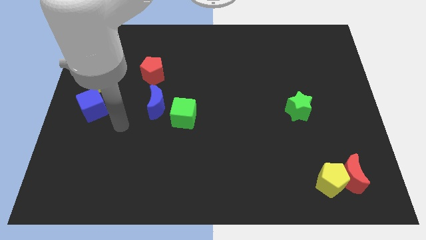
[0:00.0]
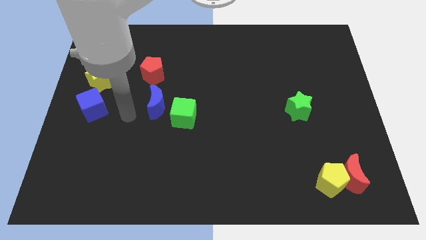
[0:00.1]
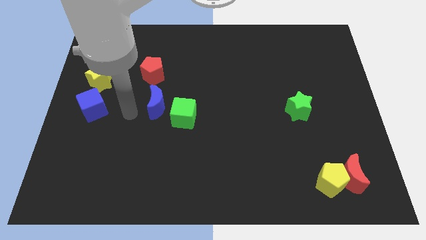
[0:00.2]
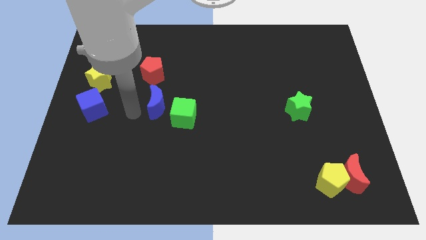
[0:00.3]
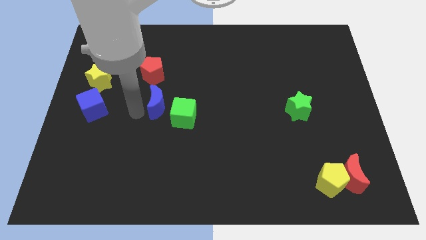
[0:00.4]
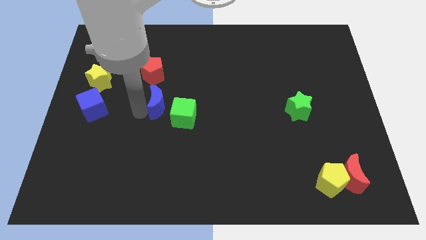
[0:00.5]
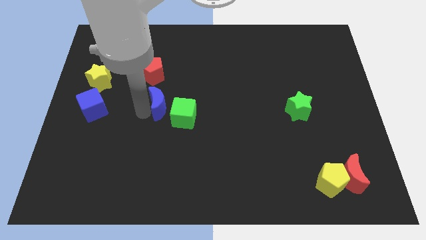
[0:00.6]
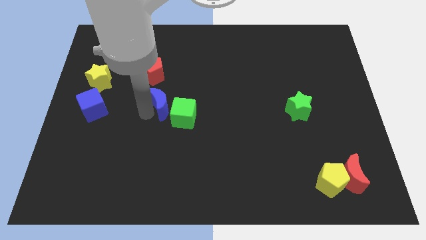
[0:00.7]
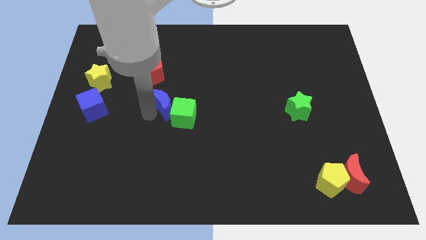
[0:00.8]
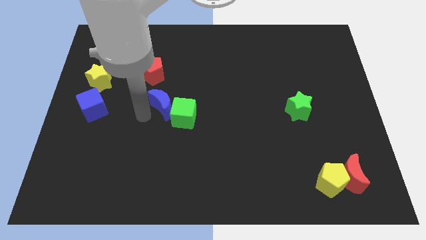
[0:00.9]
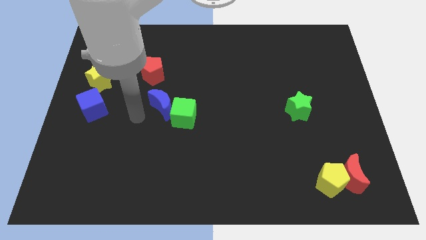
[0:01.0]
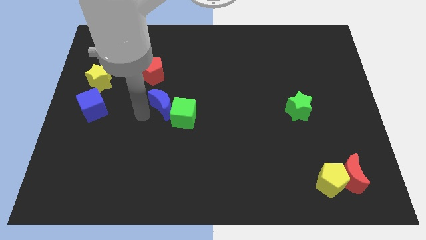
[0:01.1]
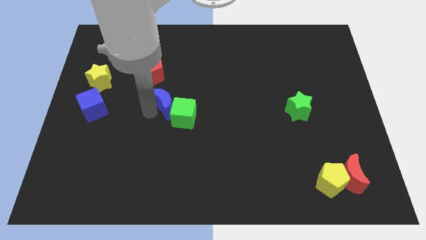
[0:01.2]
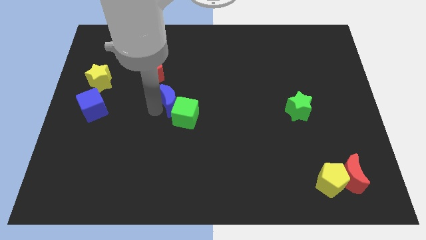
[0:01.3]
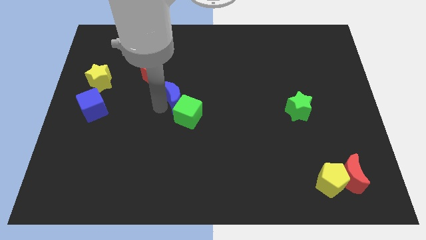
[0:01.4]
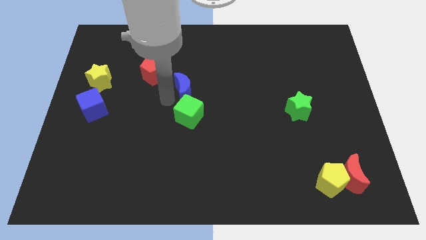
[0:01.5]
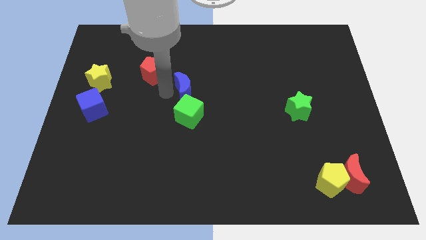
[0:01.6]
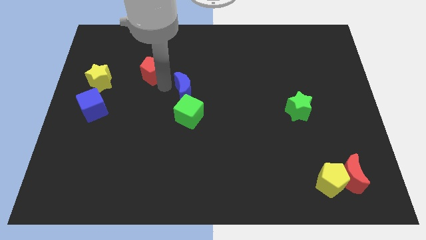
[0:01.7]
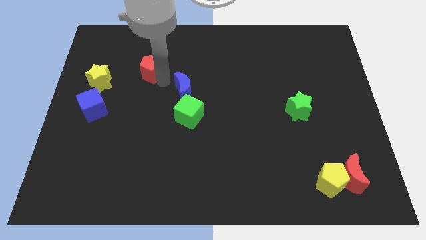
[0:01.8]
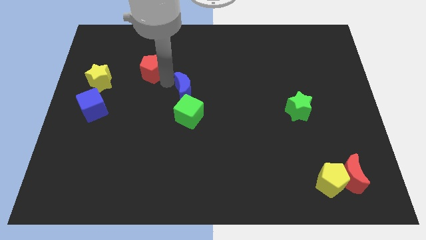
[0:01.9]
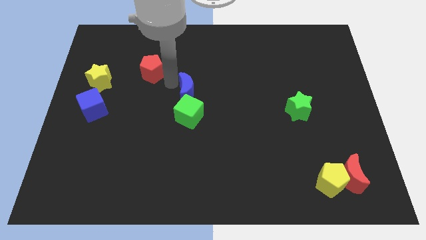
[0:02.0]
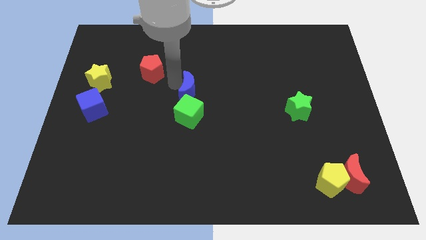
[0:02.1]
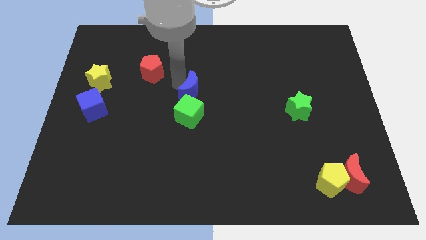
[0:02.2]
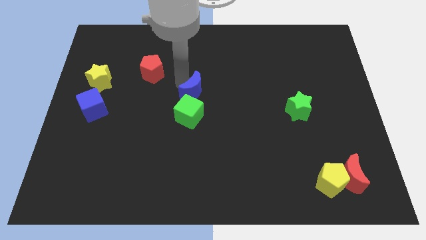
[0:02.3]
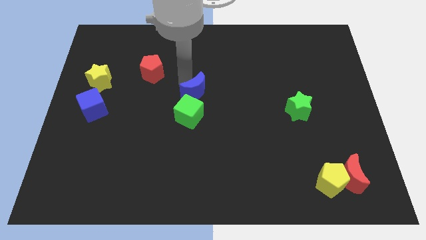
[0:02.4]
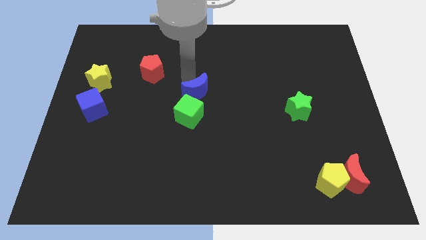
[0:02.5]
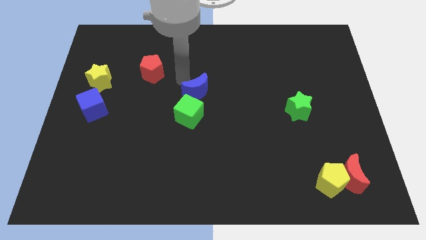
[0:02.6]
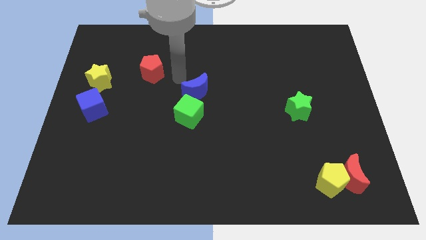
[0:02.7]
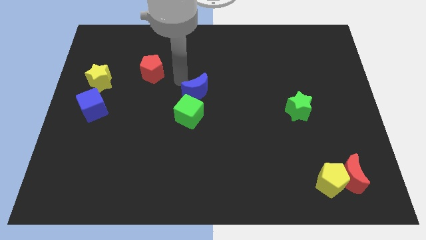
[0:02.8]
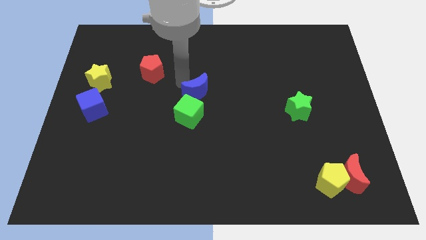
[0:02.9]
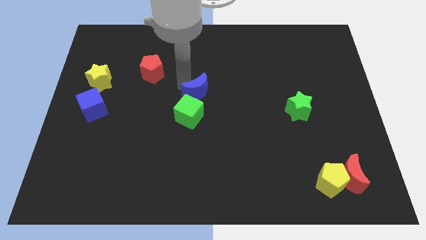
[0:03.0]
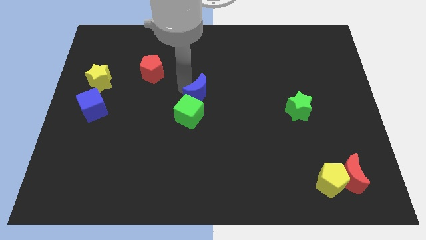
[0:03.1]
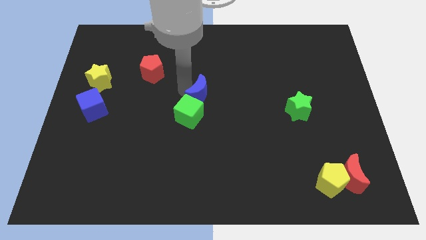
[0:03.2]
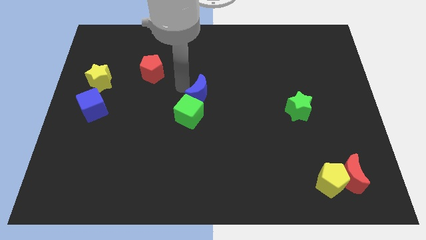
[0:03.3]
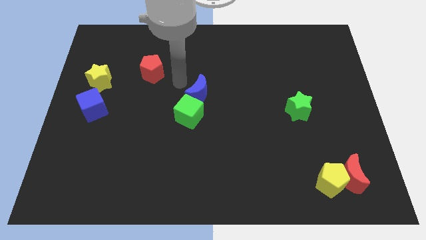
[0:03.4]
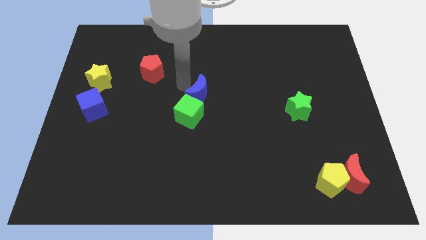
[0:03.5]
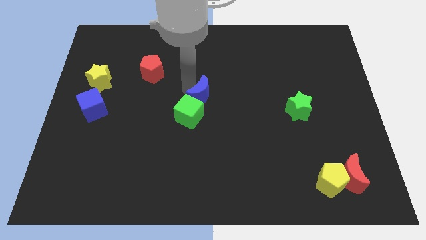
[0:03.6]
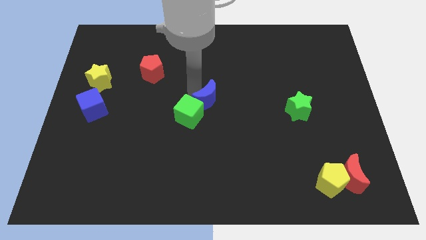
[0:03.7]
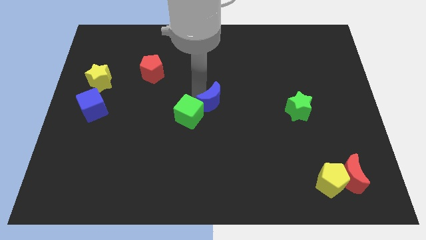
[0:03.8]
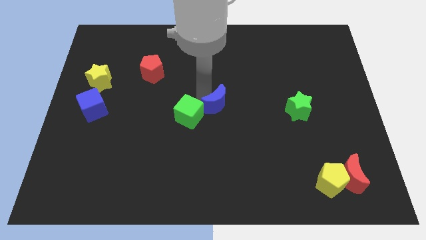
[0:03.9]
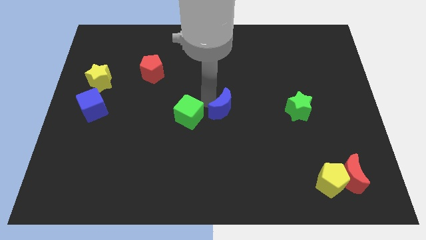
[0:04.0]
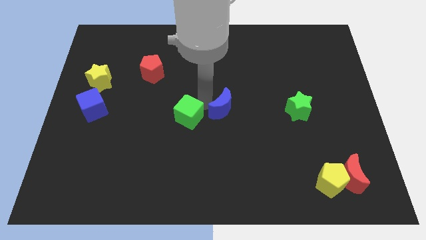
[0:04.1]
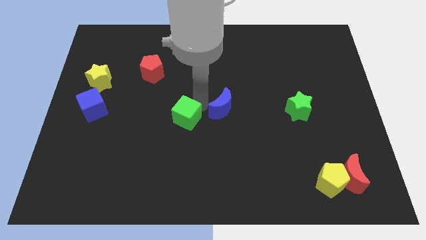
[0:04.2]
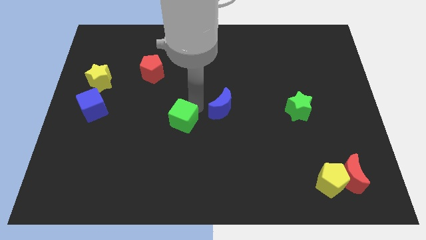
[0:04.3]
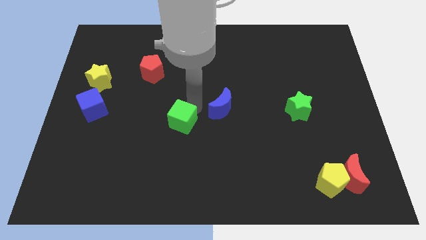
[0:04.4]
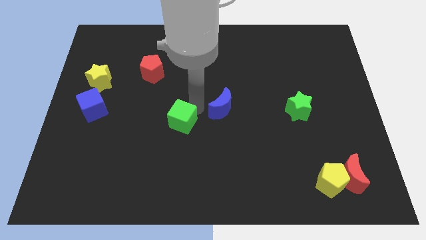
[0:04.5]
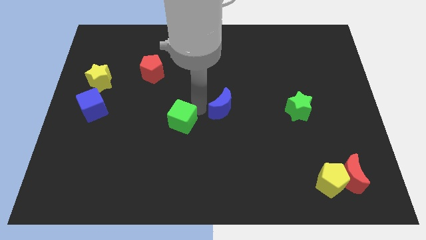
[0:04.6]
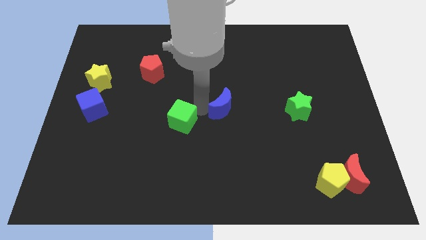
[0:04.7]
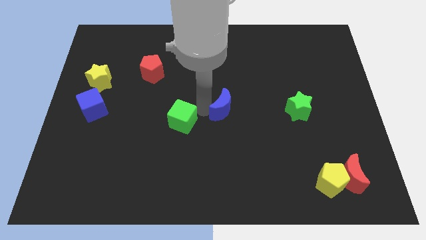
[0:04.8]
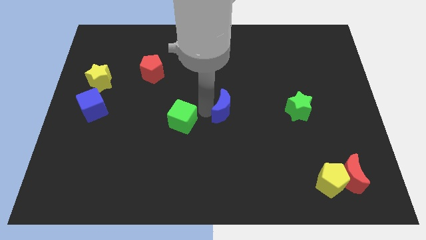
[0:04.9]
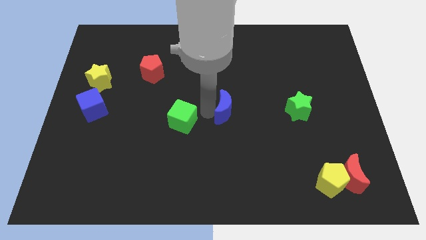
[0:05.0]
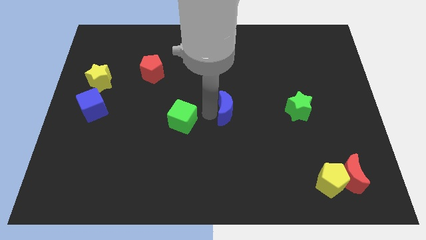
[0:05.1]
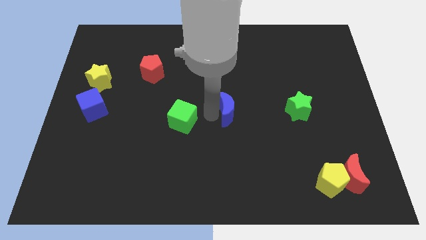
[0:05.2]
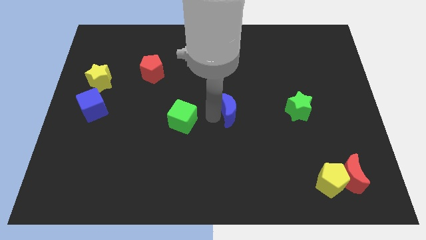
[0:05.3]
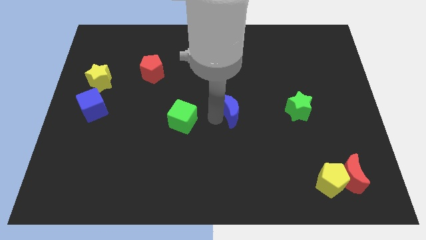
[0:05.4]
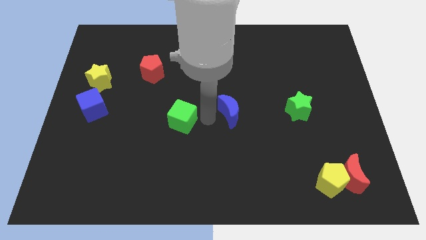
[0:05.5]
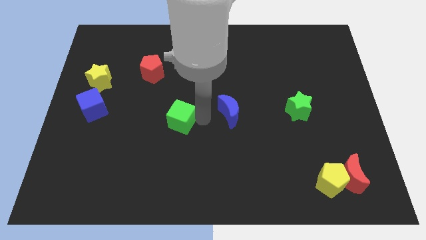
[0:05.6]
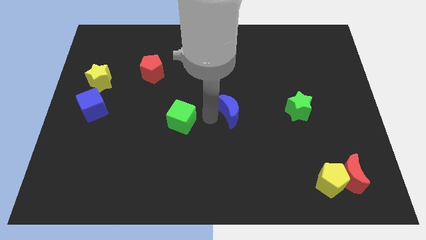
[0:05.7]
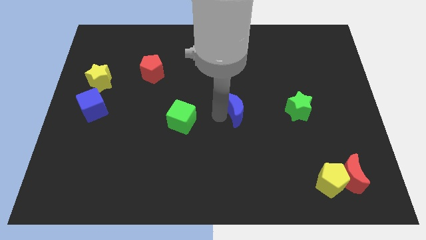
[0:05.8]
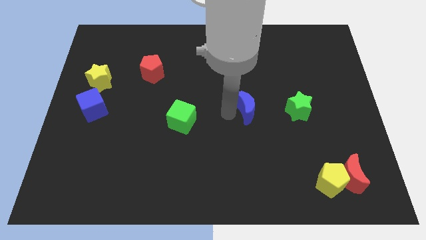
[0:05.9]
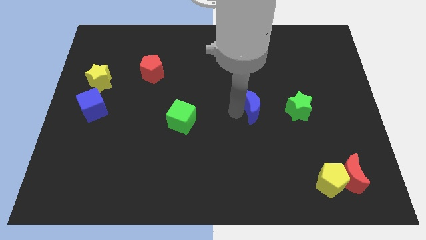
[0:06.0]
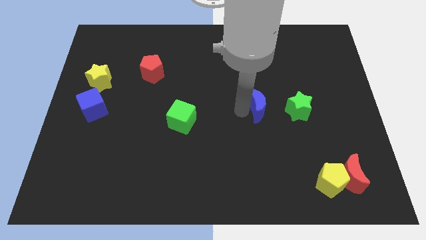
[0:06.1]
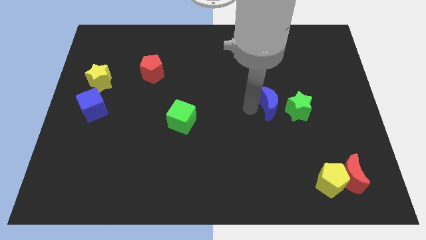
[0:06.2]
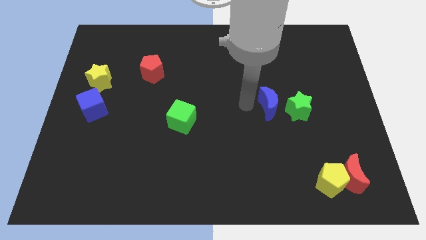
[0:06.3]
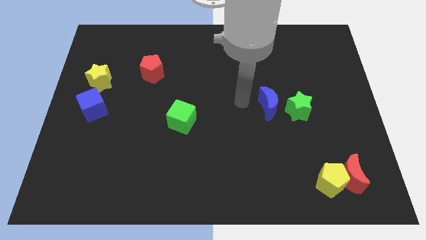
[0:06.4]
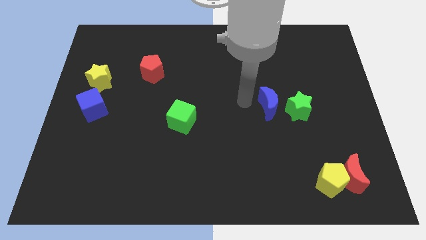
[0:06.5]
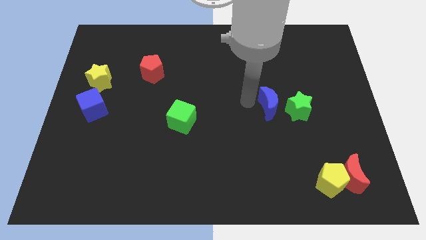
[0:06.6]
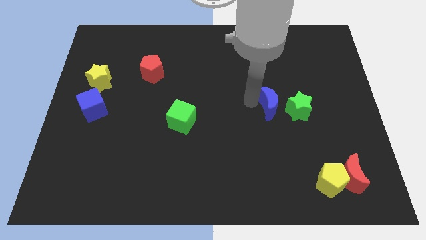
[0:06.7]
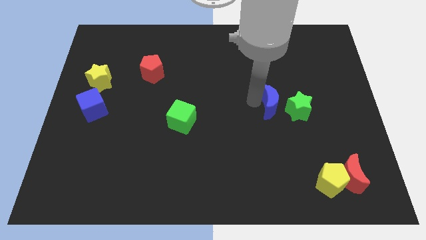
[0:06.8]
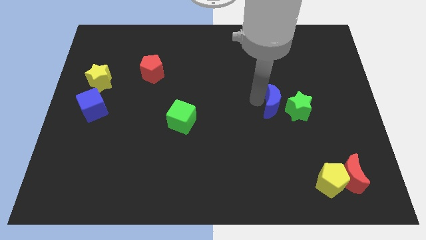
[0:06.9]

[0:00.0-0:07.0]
slide the blue moon close to the green star
